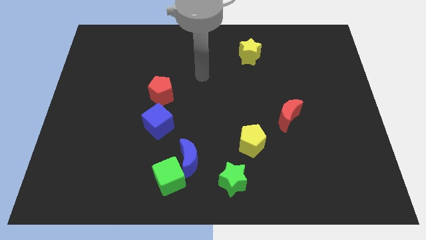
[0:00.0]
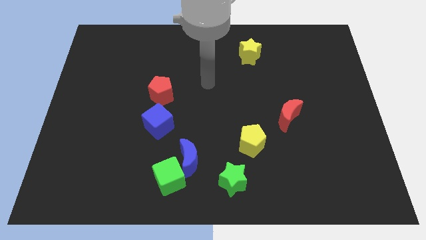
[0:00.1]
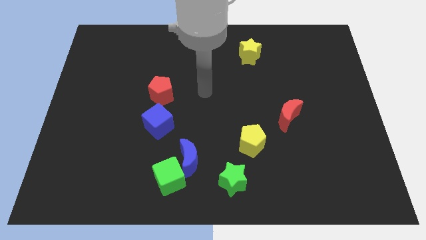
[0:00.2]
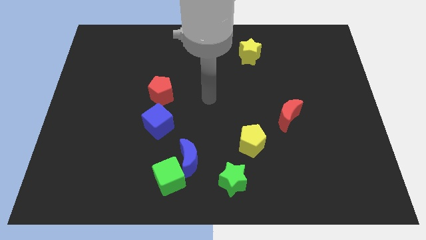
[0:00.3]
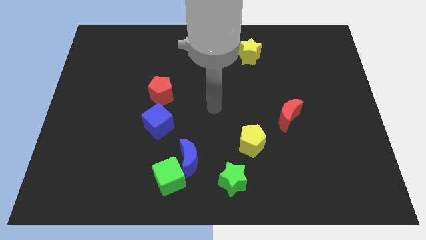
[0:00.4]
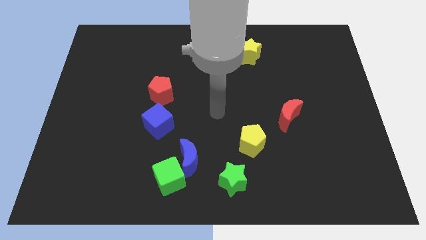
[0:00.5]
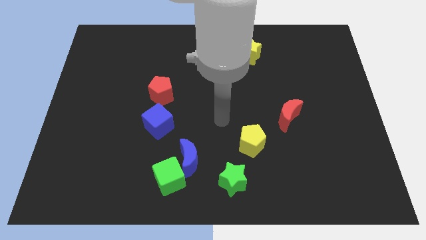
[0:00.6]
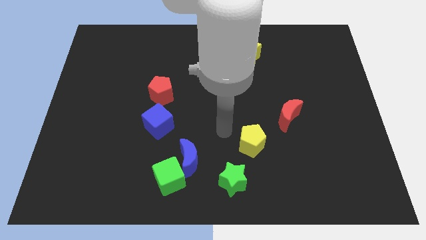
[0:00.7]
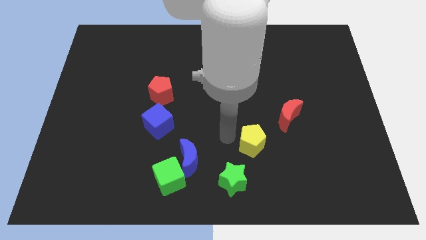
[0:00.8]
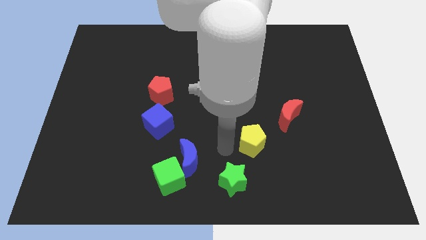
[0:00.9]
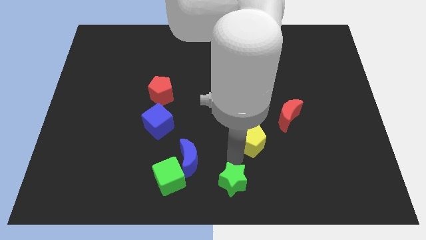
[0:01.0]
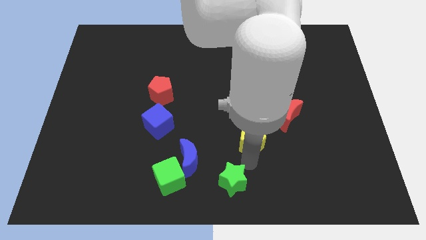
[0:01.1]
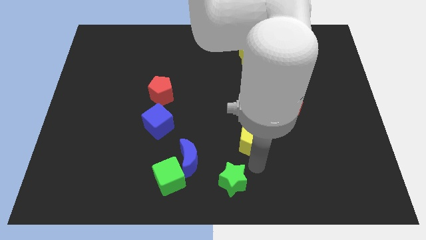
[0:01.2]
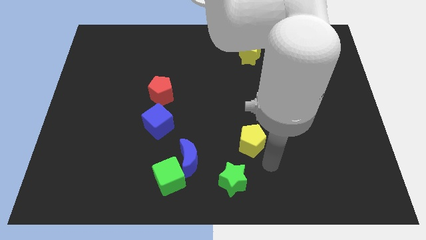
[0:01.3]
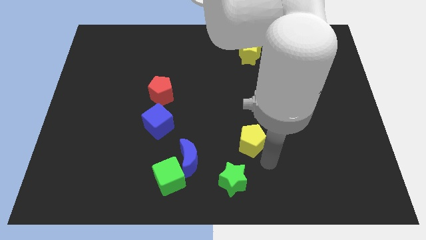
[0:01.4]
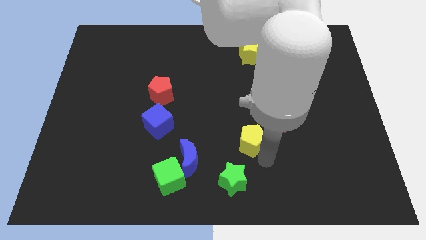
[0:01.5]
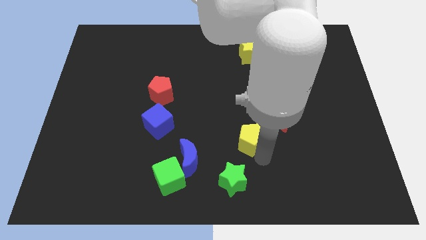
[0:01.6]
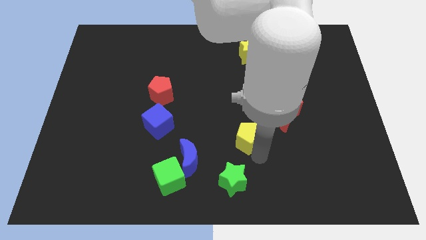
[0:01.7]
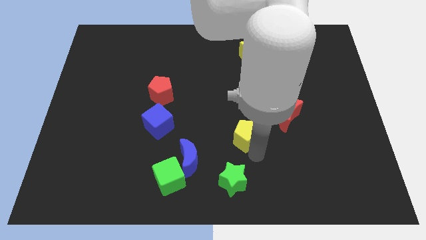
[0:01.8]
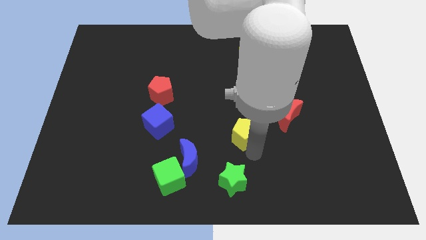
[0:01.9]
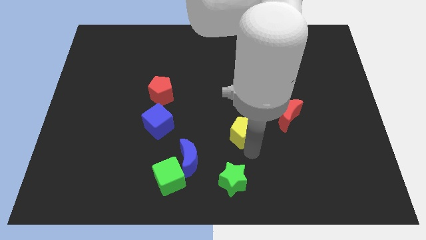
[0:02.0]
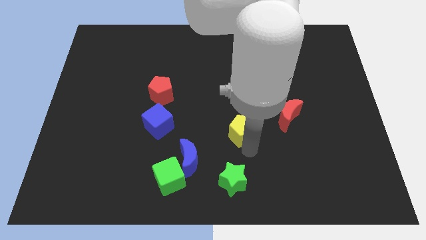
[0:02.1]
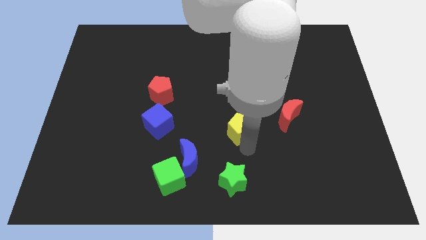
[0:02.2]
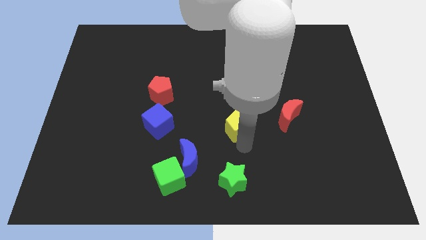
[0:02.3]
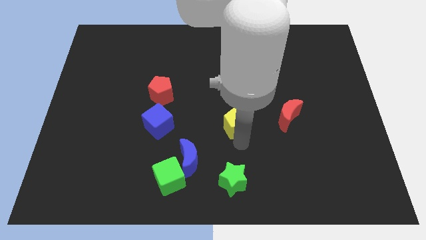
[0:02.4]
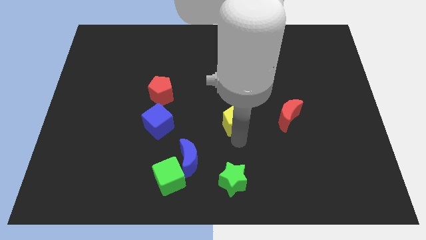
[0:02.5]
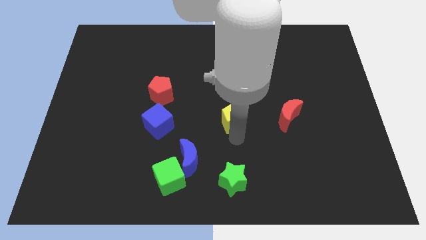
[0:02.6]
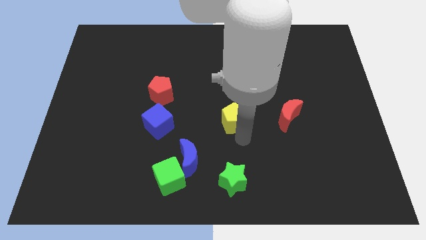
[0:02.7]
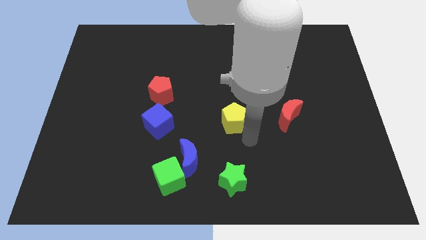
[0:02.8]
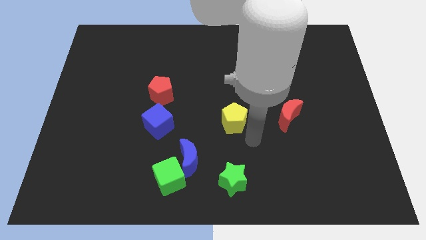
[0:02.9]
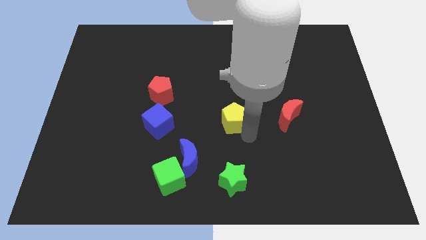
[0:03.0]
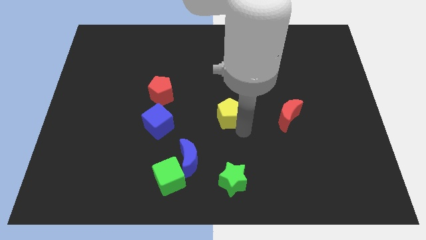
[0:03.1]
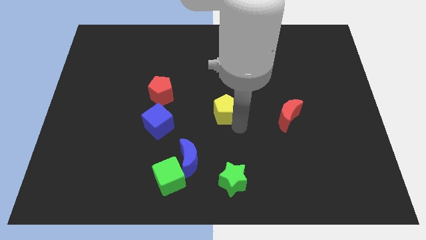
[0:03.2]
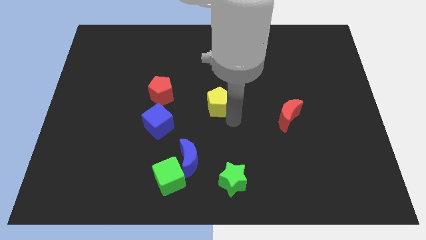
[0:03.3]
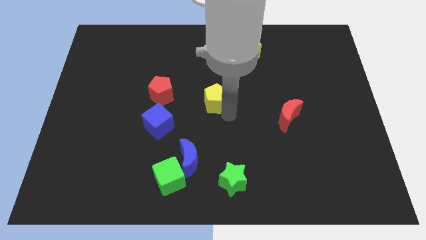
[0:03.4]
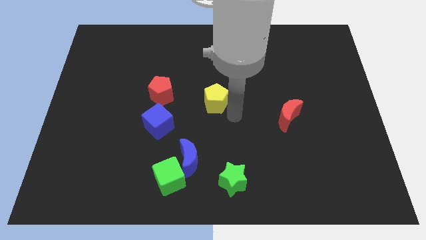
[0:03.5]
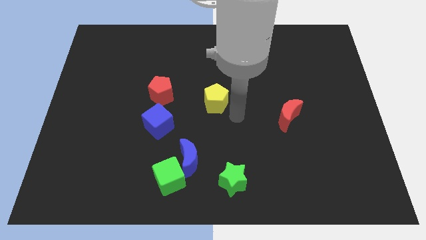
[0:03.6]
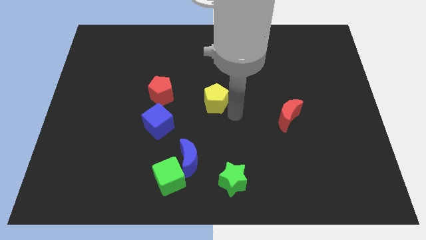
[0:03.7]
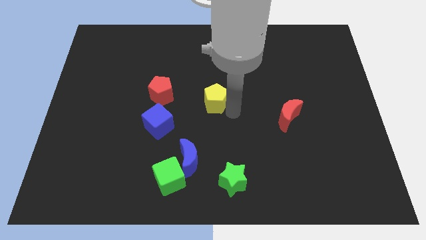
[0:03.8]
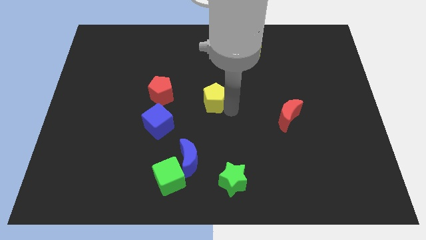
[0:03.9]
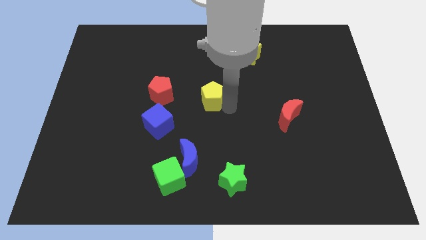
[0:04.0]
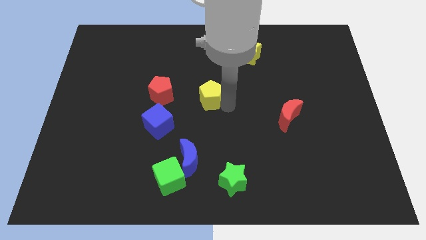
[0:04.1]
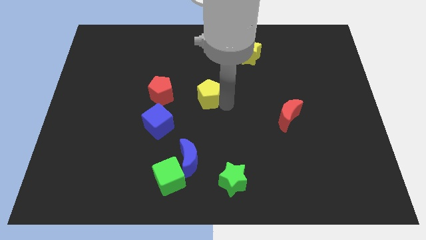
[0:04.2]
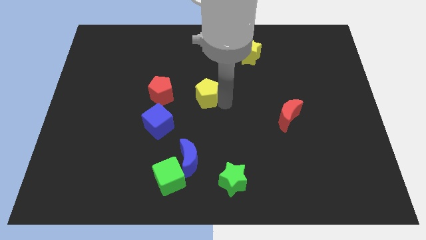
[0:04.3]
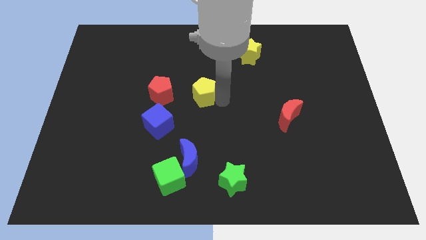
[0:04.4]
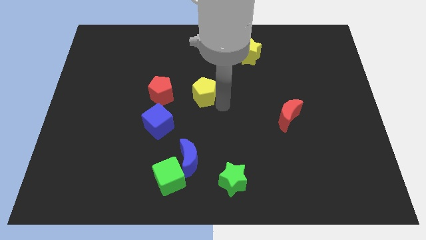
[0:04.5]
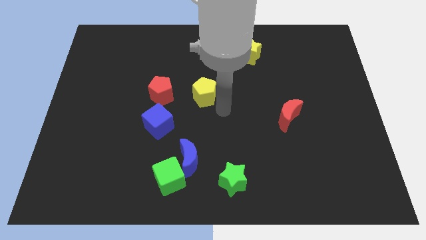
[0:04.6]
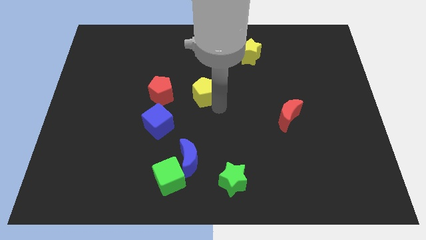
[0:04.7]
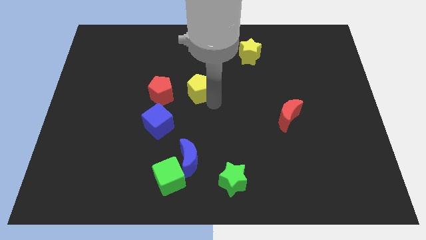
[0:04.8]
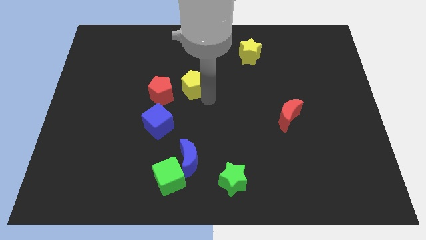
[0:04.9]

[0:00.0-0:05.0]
move the yellow pentagon diagonally up and to the right of the red pentagon

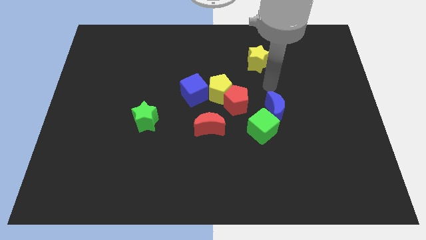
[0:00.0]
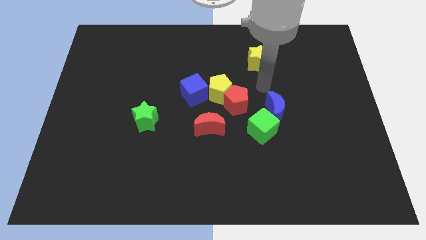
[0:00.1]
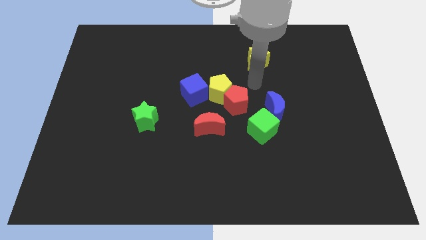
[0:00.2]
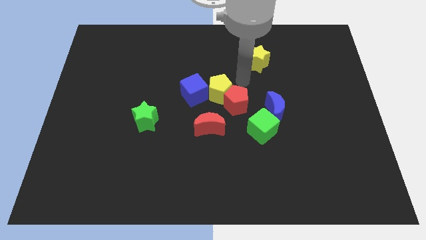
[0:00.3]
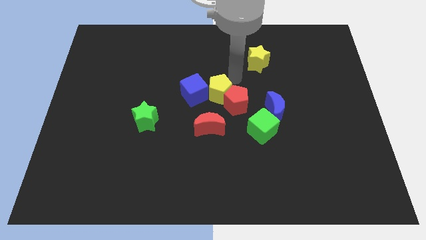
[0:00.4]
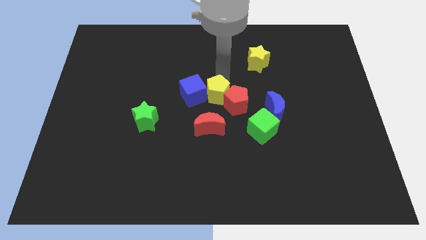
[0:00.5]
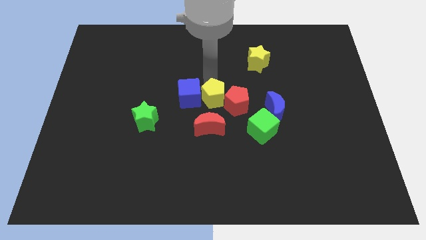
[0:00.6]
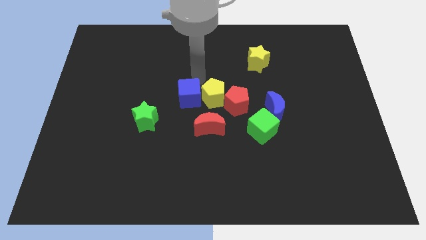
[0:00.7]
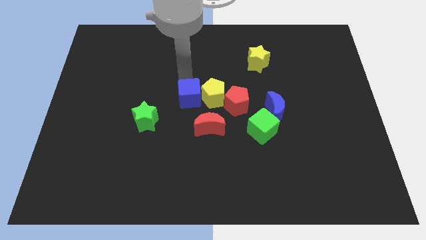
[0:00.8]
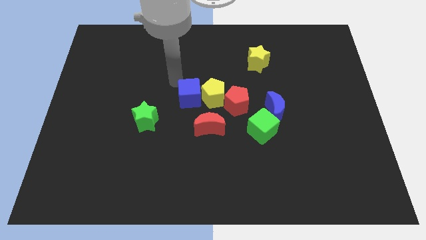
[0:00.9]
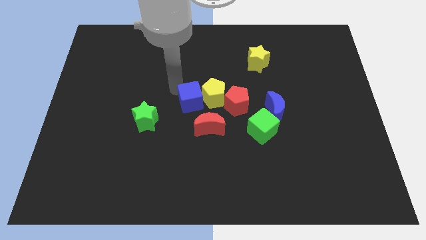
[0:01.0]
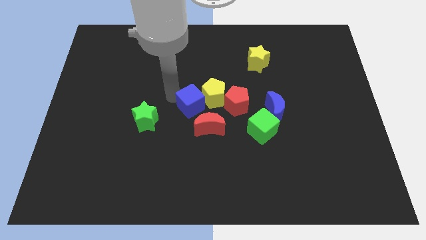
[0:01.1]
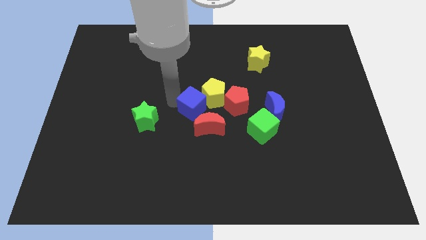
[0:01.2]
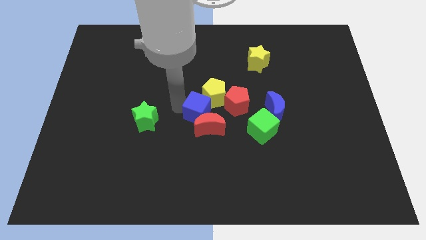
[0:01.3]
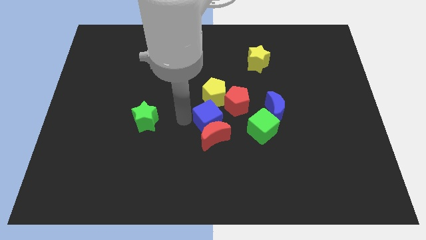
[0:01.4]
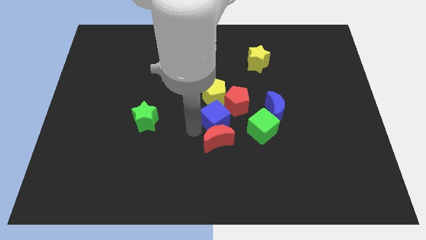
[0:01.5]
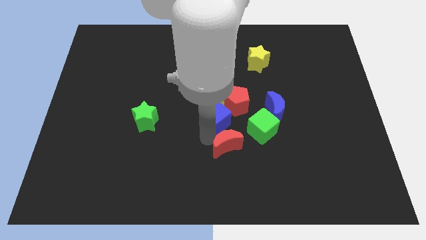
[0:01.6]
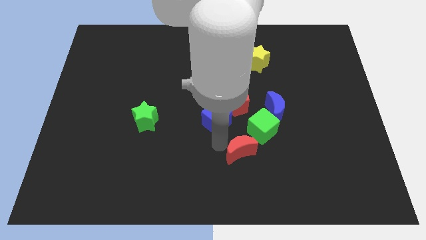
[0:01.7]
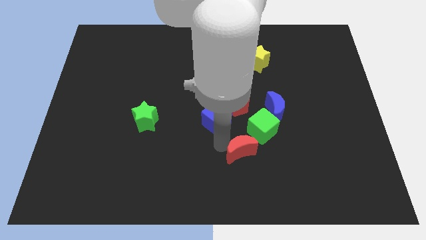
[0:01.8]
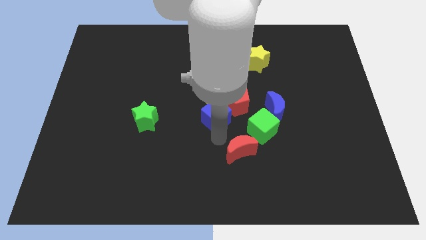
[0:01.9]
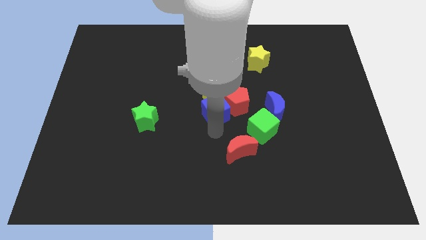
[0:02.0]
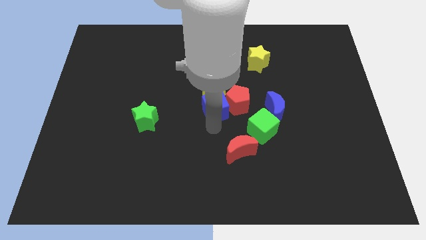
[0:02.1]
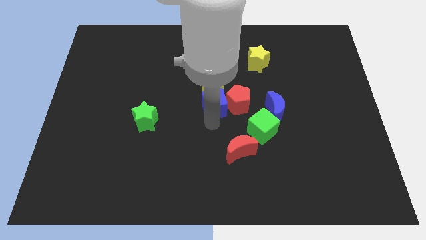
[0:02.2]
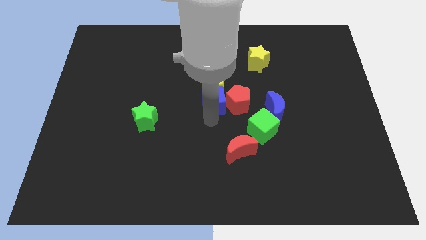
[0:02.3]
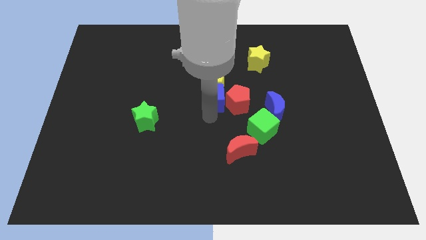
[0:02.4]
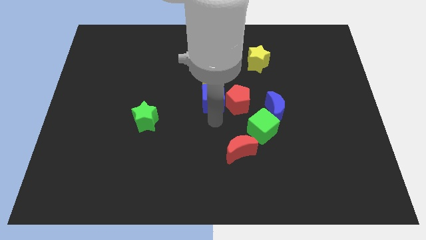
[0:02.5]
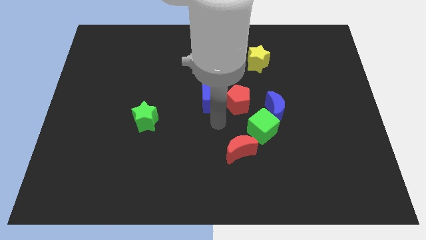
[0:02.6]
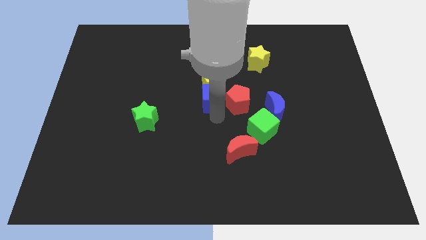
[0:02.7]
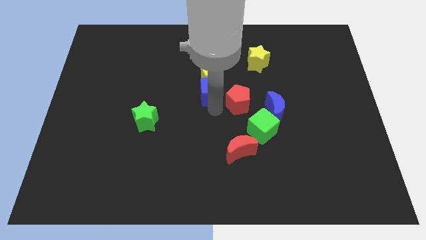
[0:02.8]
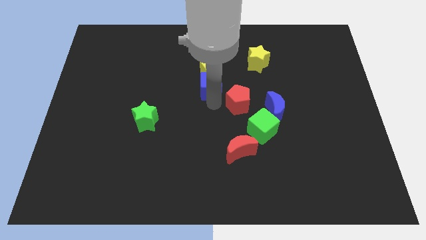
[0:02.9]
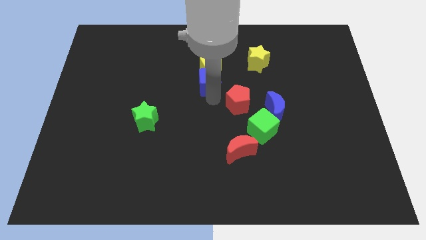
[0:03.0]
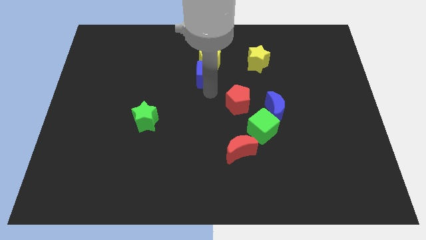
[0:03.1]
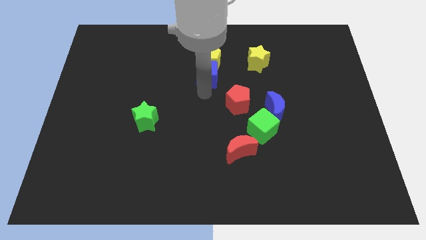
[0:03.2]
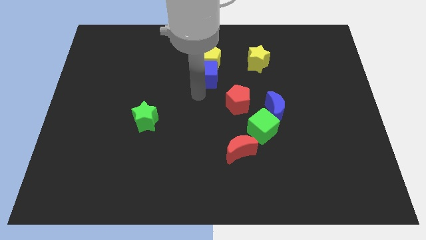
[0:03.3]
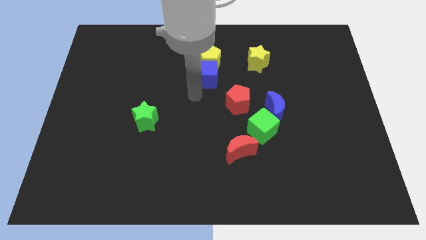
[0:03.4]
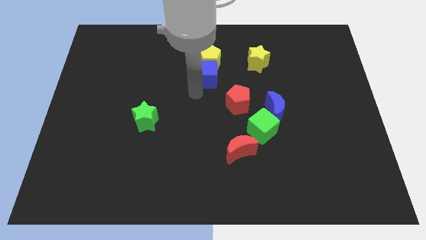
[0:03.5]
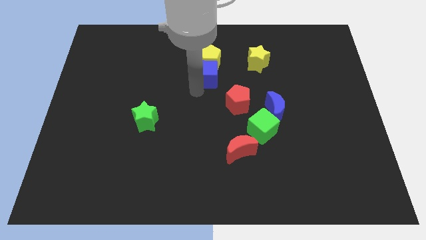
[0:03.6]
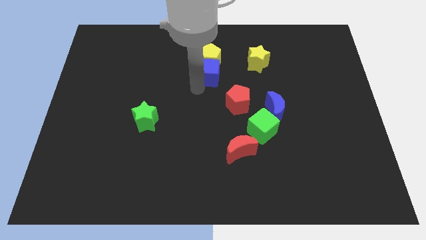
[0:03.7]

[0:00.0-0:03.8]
slide the blue cube to the left side of the yellow star
